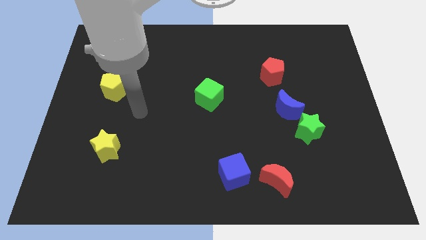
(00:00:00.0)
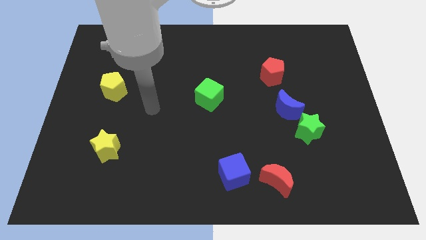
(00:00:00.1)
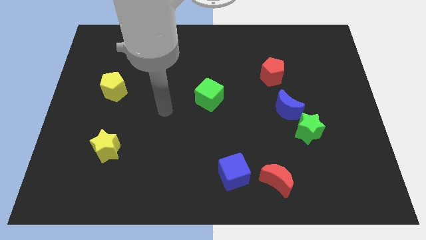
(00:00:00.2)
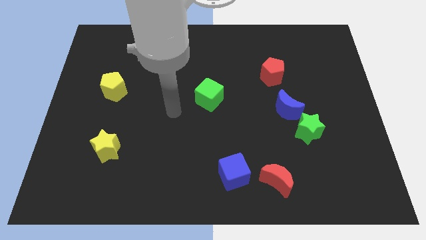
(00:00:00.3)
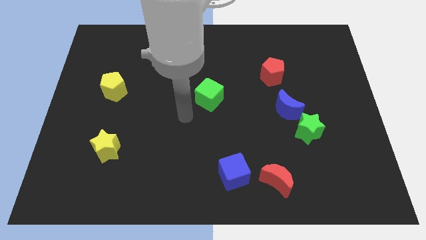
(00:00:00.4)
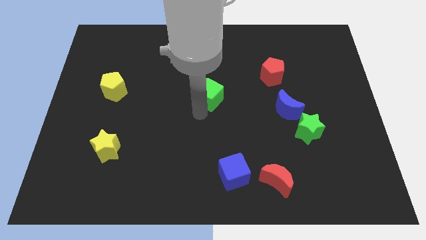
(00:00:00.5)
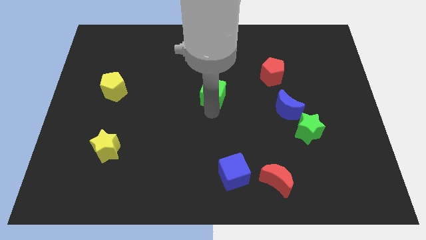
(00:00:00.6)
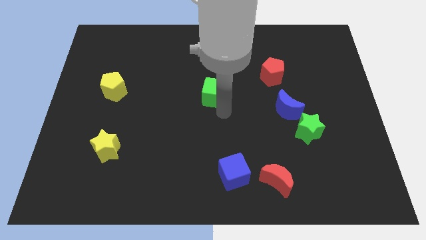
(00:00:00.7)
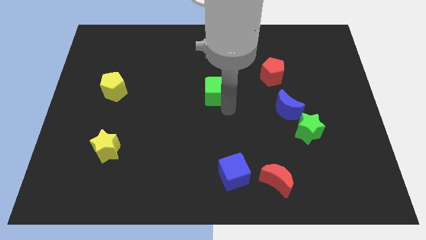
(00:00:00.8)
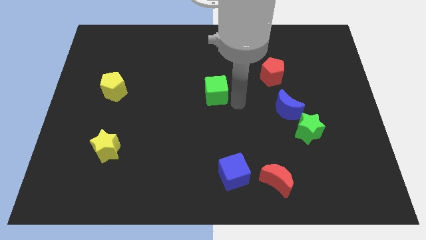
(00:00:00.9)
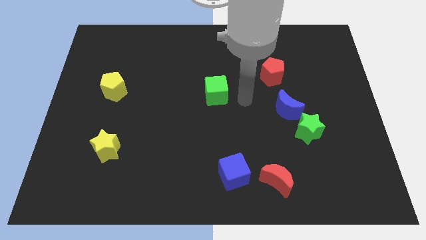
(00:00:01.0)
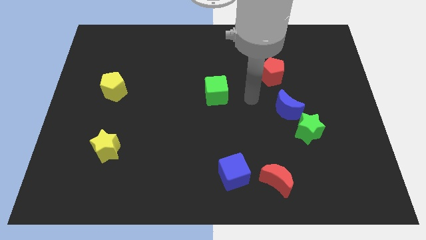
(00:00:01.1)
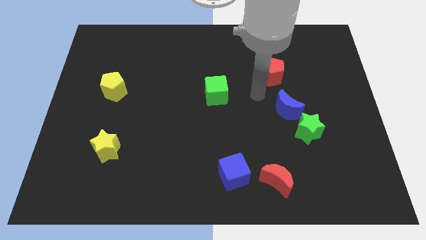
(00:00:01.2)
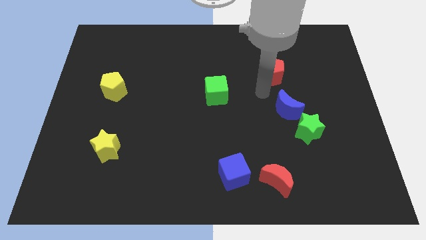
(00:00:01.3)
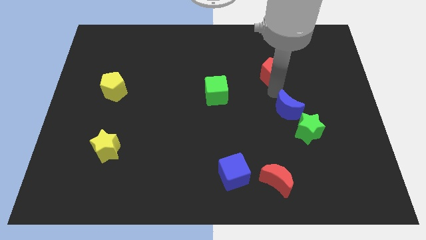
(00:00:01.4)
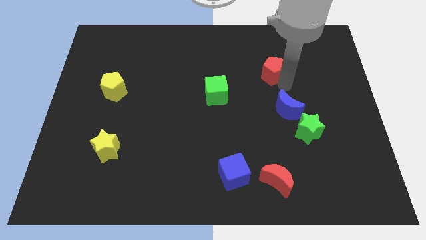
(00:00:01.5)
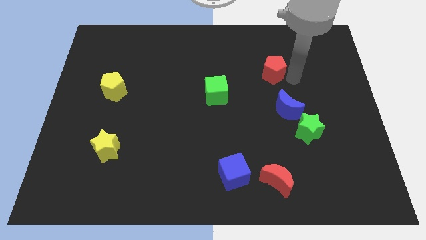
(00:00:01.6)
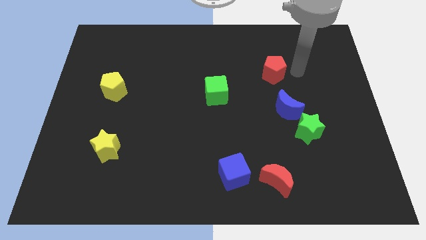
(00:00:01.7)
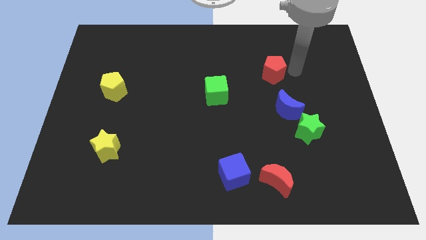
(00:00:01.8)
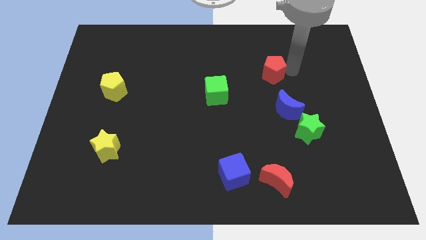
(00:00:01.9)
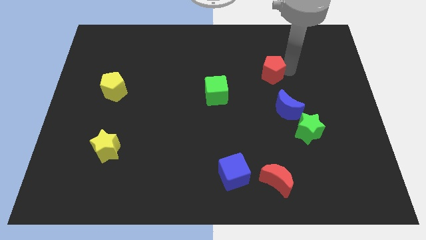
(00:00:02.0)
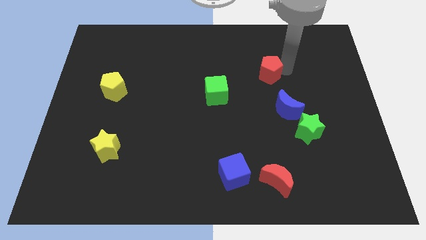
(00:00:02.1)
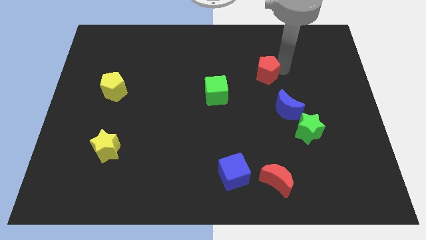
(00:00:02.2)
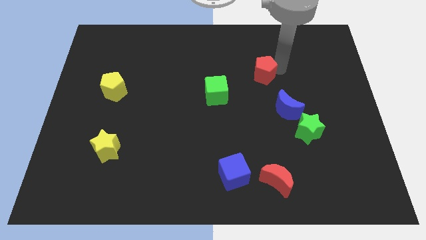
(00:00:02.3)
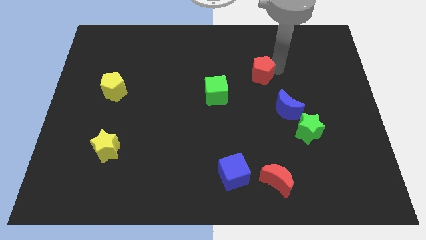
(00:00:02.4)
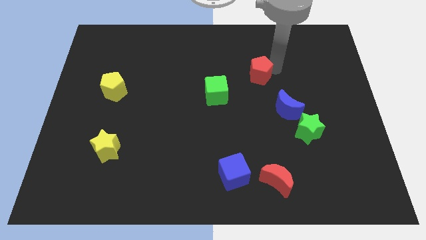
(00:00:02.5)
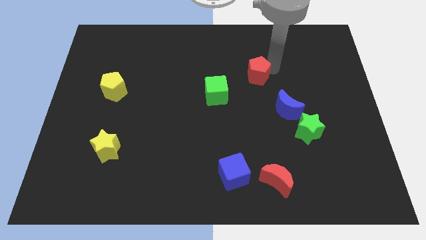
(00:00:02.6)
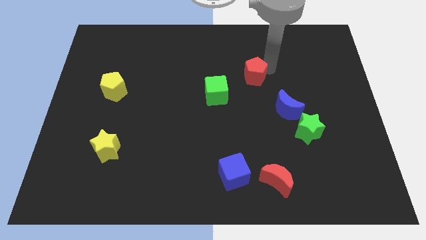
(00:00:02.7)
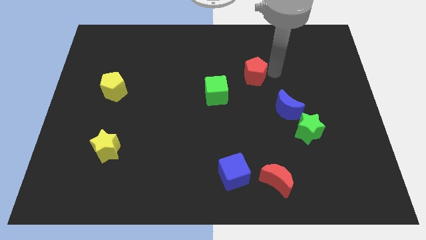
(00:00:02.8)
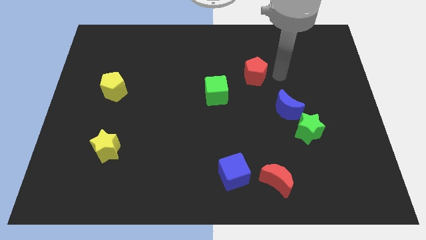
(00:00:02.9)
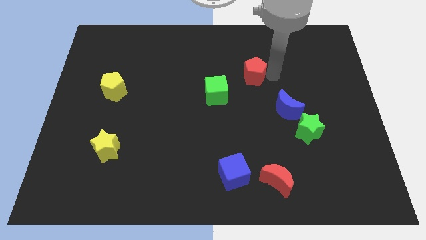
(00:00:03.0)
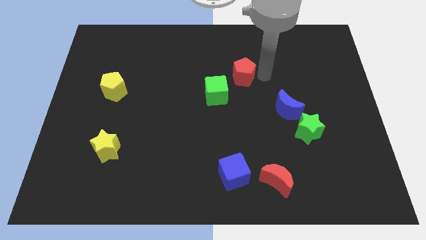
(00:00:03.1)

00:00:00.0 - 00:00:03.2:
push the red pentagon left somewhat

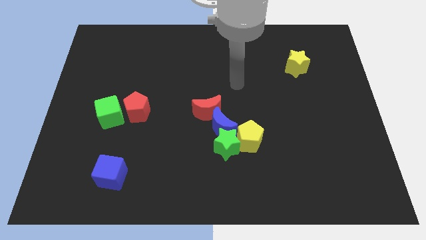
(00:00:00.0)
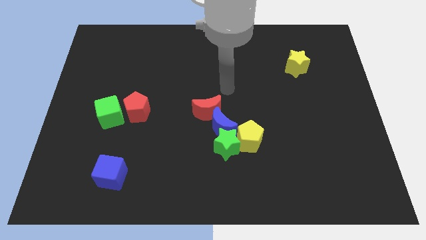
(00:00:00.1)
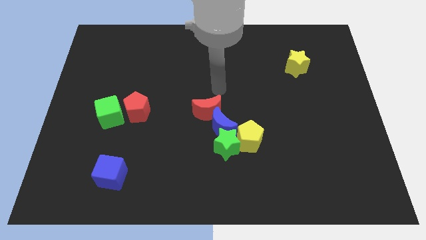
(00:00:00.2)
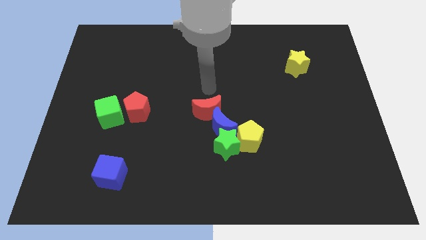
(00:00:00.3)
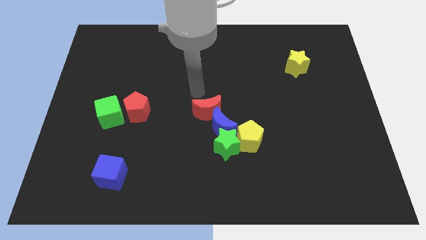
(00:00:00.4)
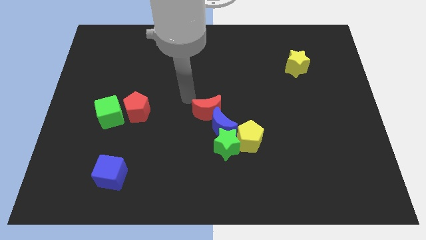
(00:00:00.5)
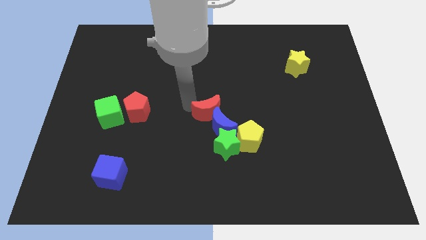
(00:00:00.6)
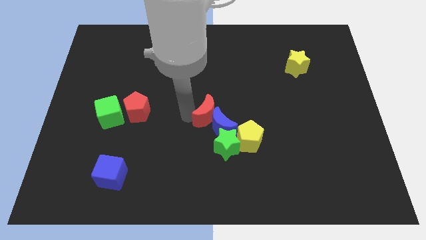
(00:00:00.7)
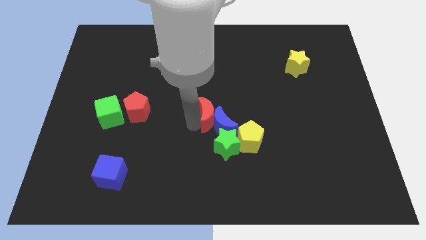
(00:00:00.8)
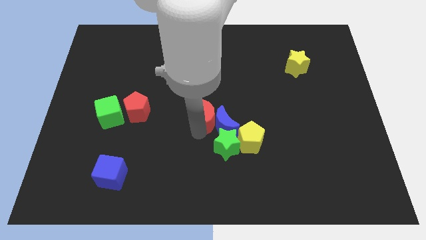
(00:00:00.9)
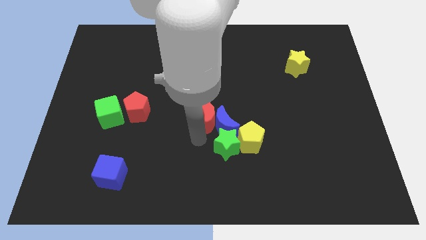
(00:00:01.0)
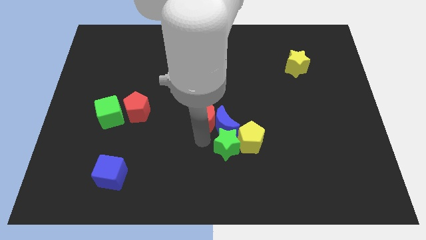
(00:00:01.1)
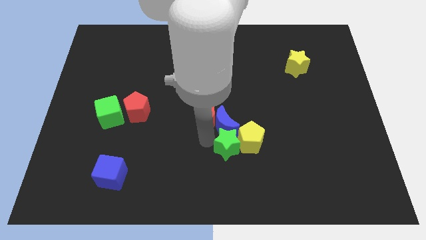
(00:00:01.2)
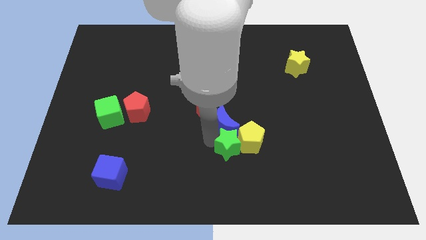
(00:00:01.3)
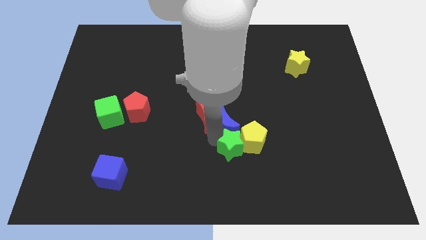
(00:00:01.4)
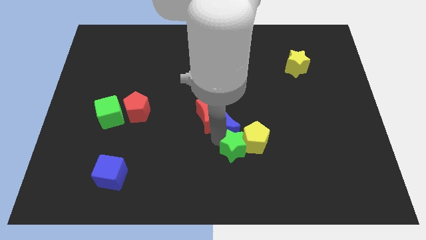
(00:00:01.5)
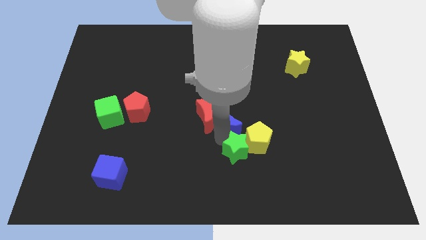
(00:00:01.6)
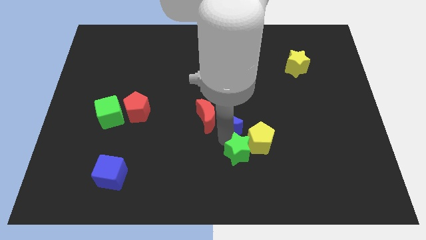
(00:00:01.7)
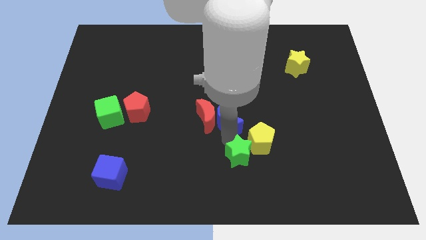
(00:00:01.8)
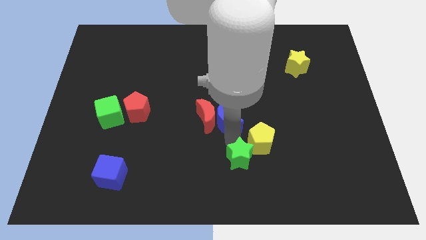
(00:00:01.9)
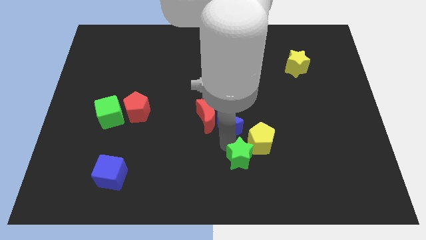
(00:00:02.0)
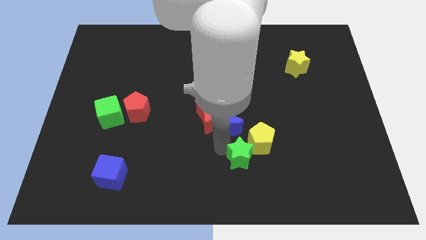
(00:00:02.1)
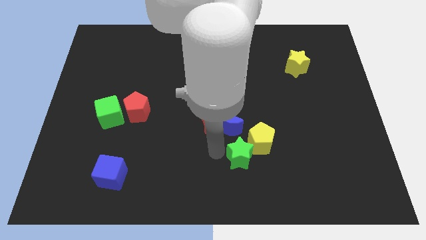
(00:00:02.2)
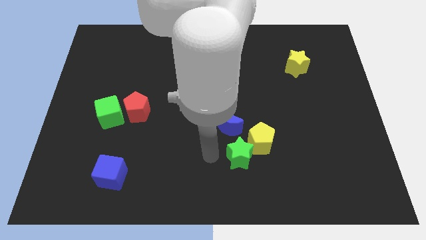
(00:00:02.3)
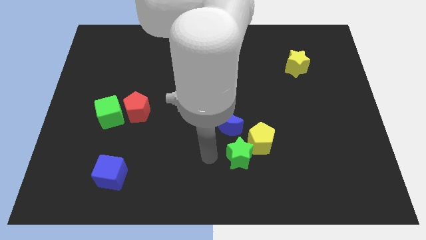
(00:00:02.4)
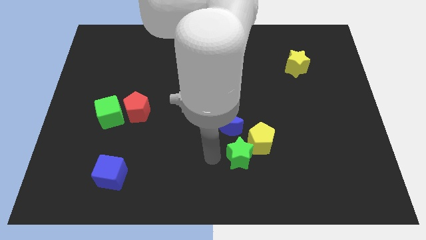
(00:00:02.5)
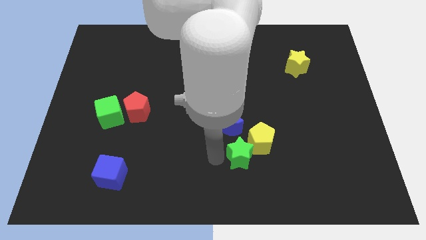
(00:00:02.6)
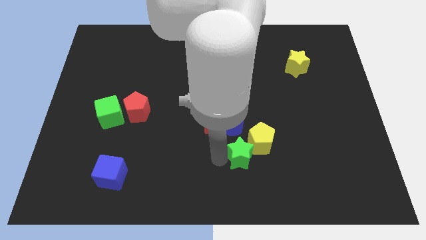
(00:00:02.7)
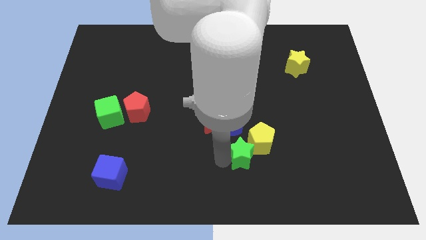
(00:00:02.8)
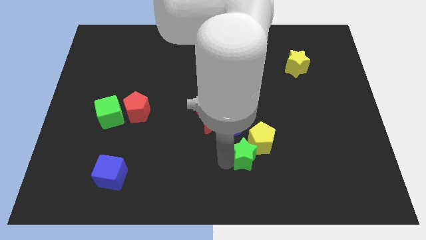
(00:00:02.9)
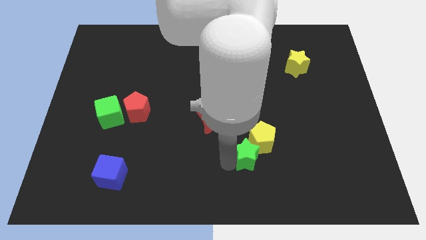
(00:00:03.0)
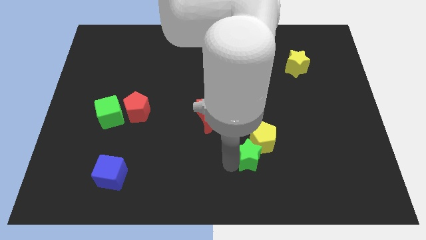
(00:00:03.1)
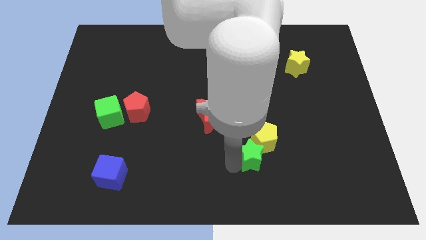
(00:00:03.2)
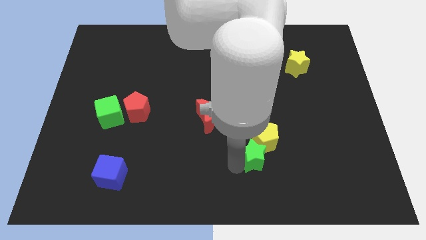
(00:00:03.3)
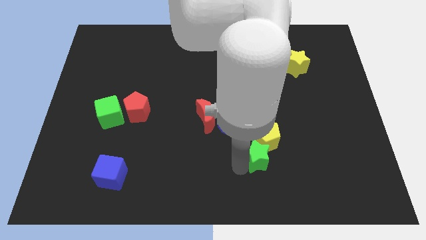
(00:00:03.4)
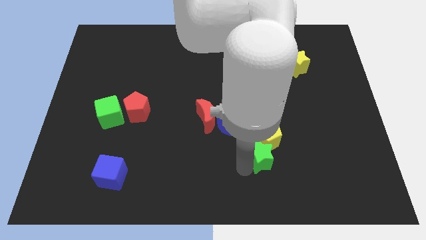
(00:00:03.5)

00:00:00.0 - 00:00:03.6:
slightly push the green star to the right

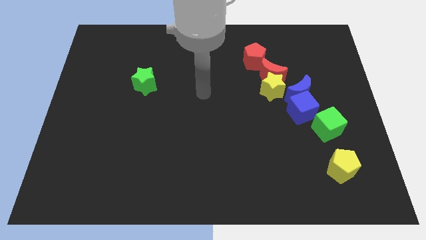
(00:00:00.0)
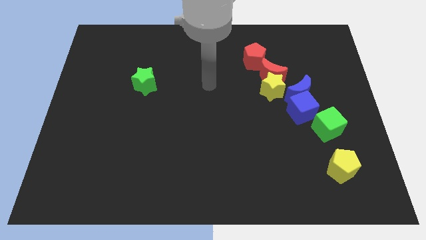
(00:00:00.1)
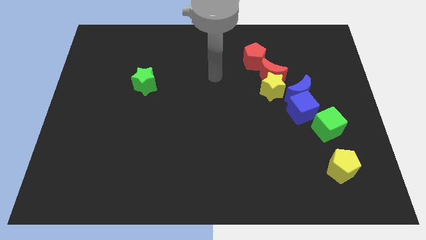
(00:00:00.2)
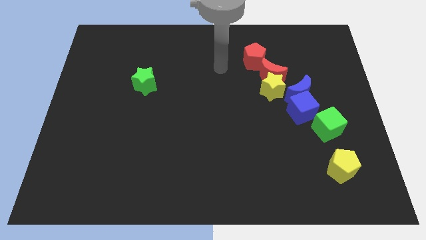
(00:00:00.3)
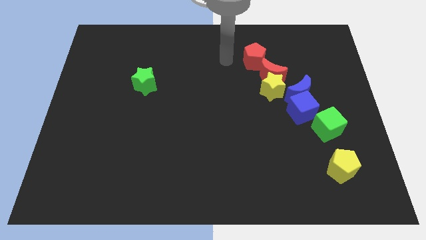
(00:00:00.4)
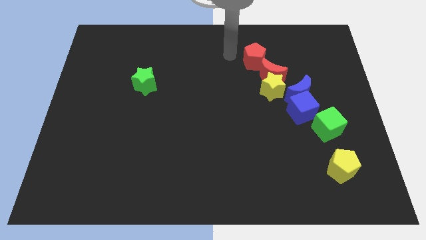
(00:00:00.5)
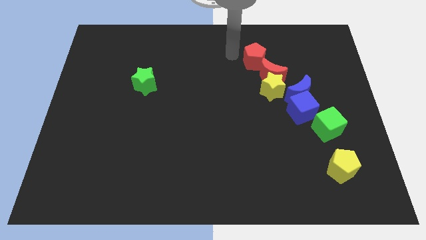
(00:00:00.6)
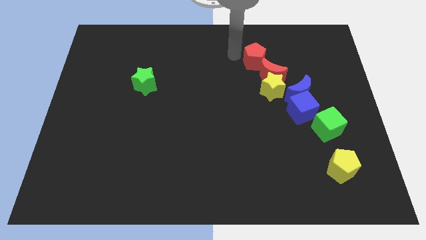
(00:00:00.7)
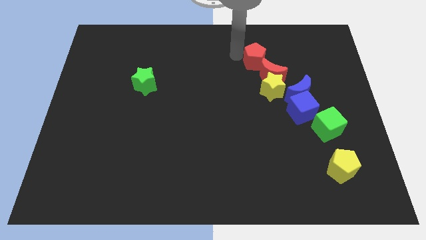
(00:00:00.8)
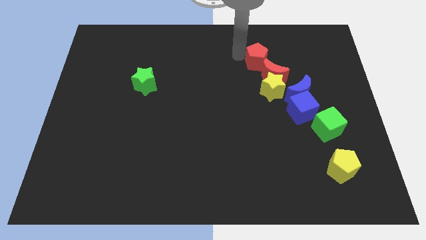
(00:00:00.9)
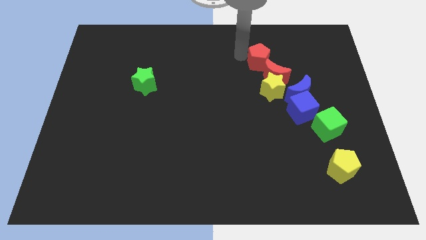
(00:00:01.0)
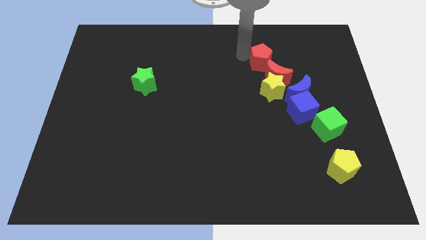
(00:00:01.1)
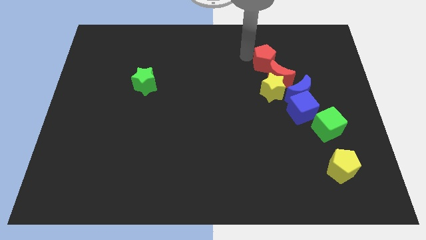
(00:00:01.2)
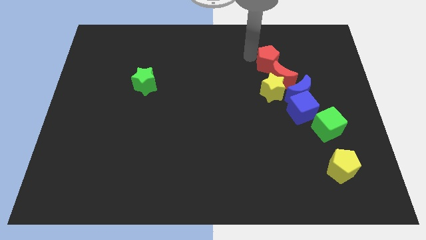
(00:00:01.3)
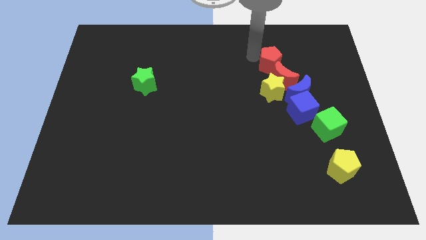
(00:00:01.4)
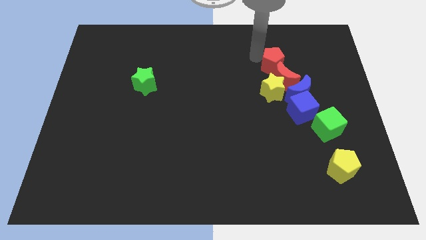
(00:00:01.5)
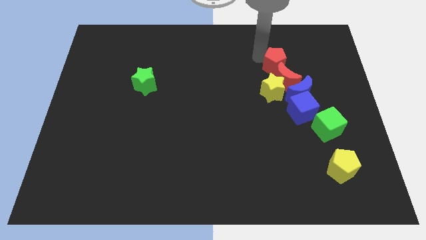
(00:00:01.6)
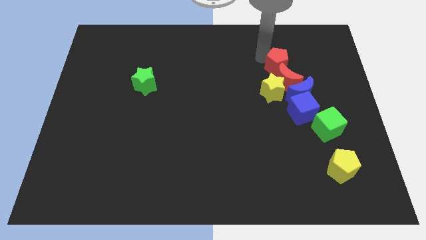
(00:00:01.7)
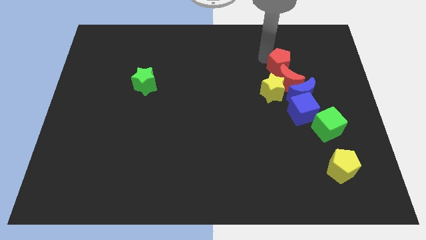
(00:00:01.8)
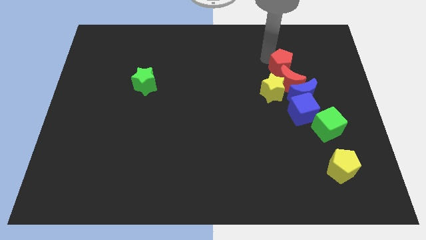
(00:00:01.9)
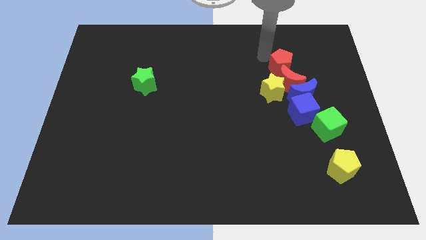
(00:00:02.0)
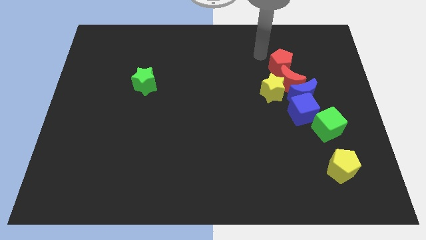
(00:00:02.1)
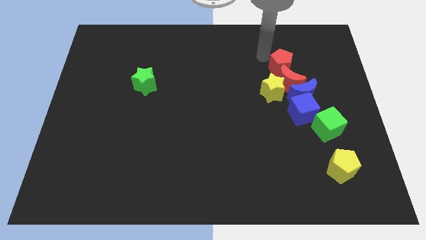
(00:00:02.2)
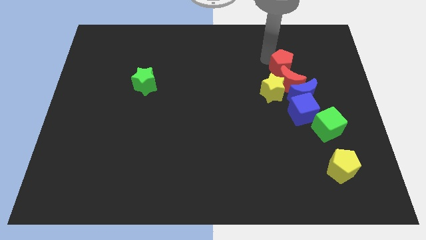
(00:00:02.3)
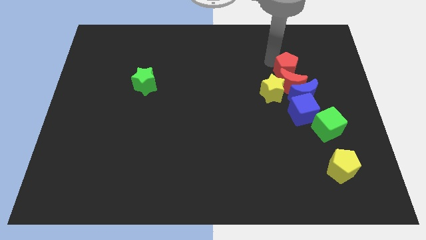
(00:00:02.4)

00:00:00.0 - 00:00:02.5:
push the red pentagon downwards and then to the right a little
